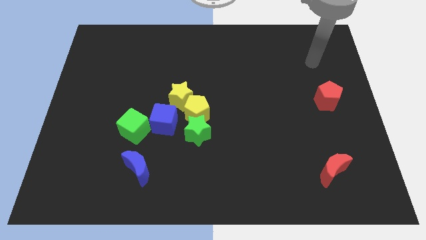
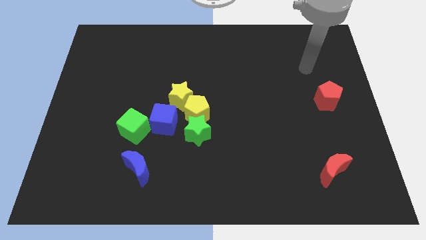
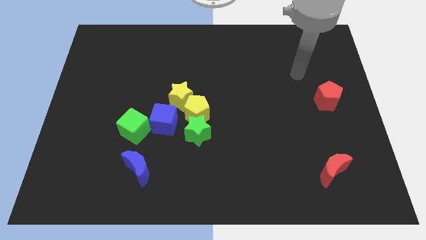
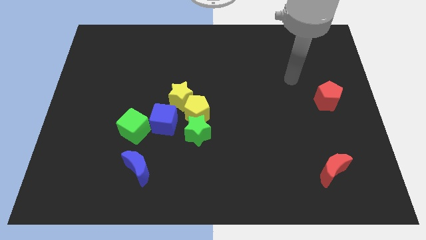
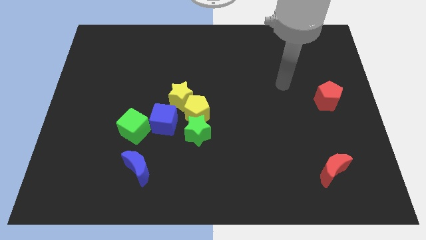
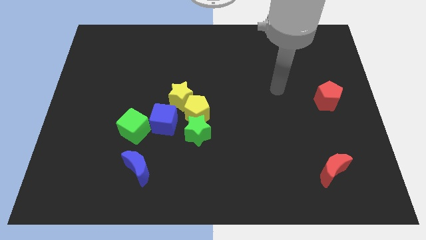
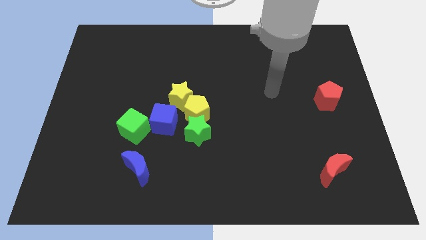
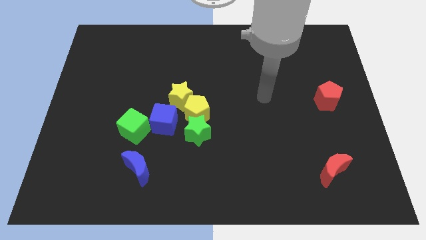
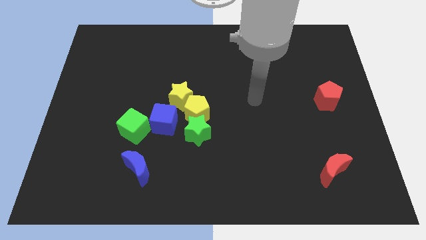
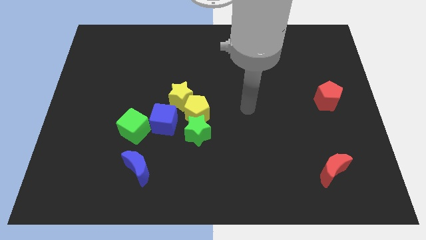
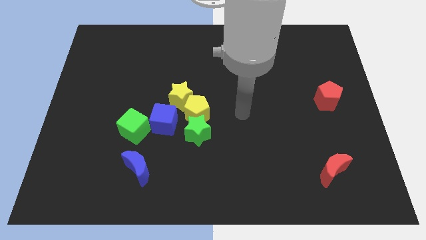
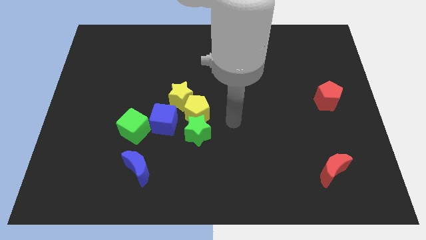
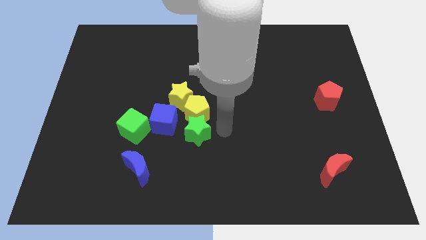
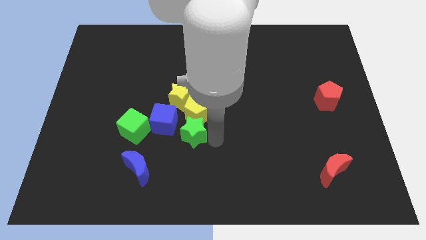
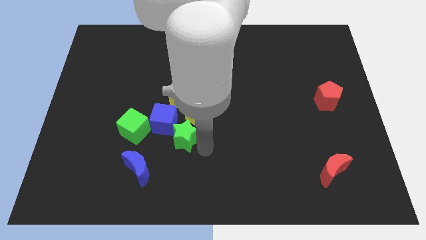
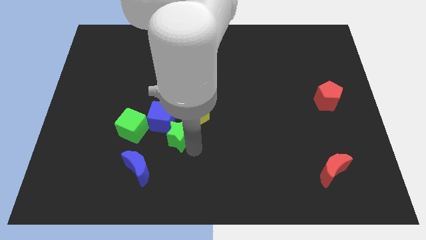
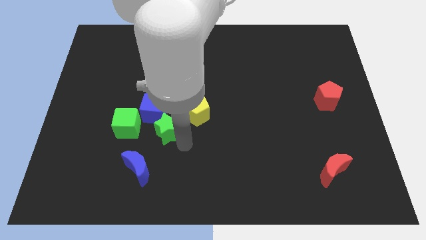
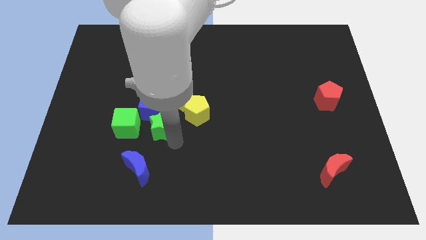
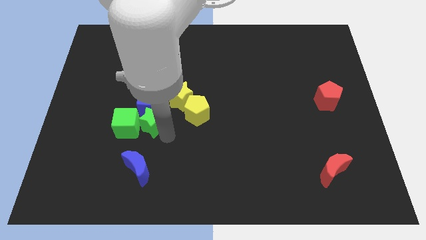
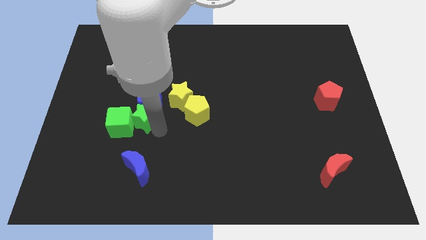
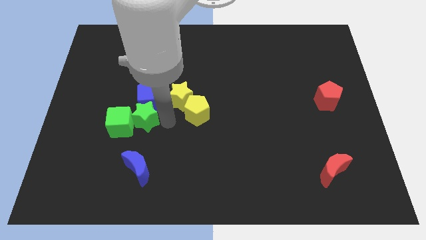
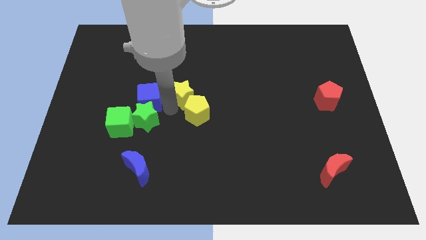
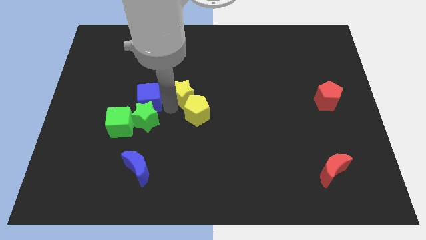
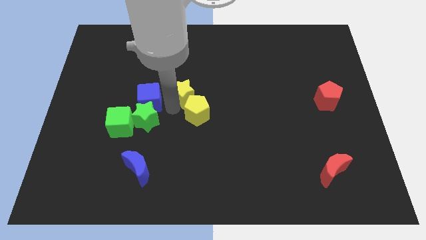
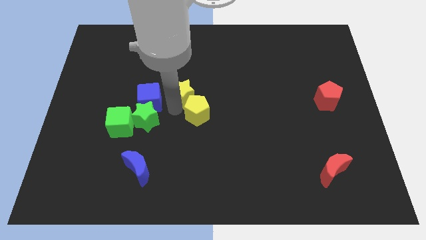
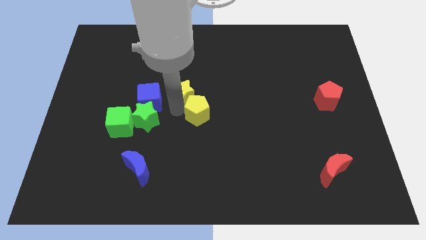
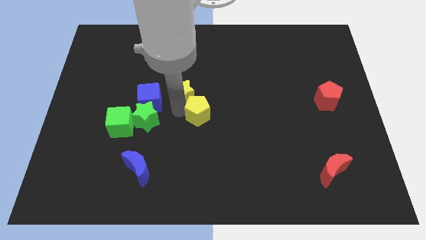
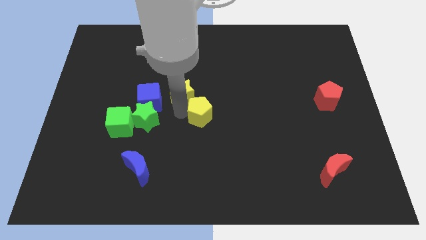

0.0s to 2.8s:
separate the yellow pentagon from the green star, yellow star, and blue cube

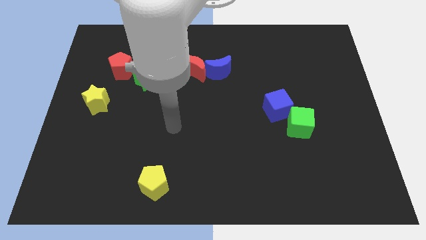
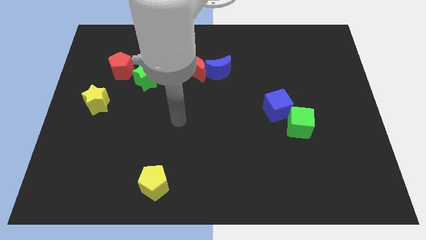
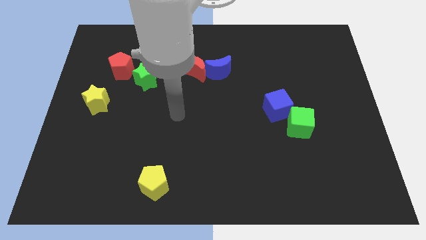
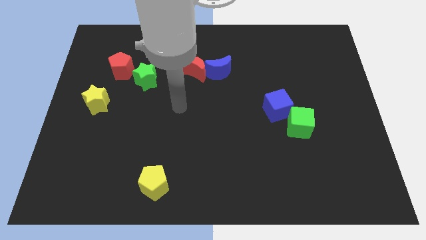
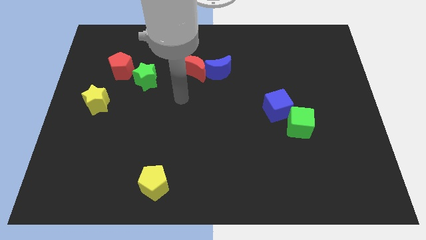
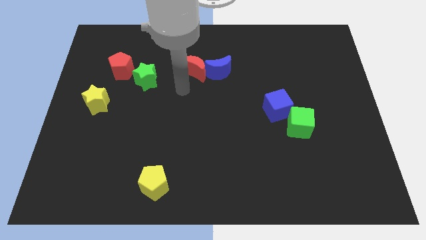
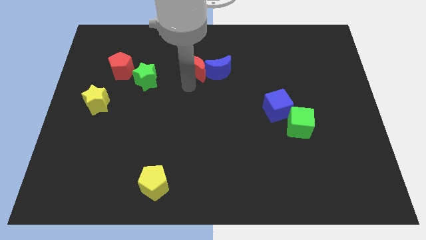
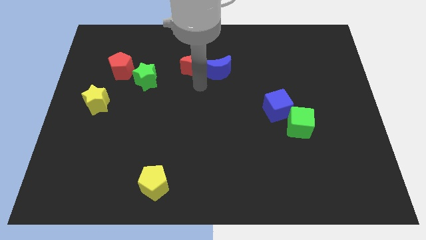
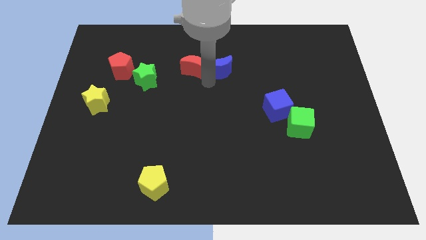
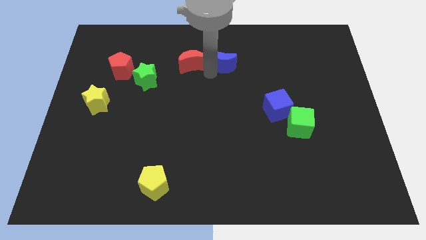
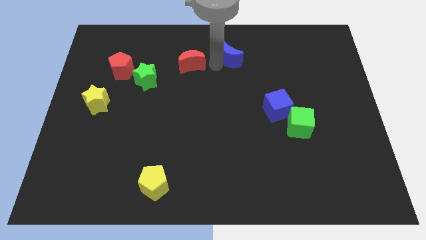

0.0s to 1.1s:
move the red moon away from the blue moon

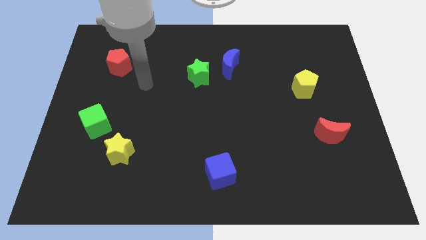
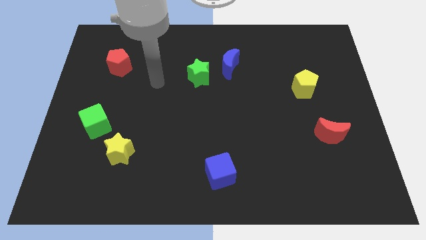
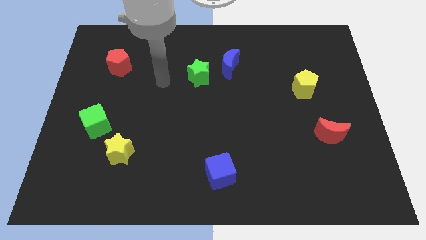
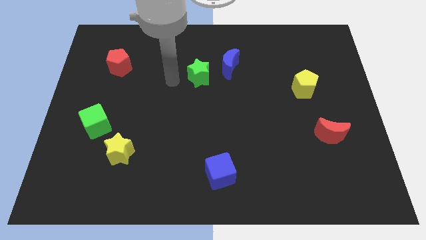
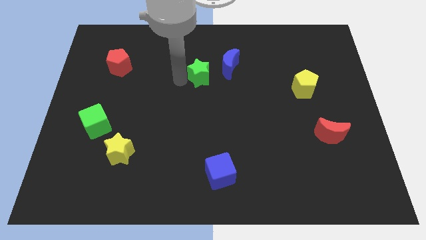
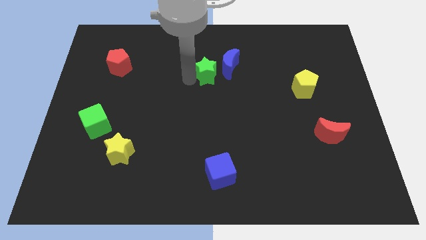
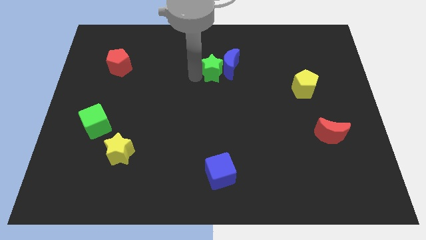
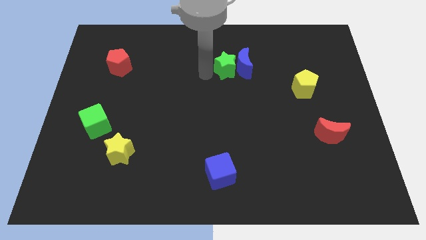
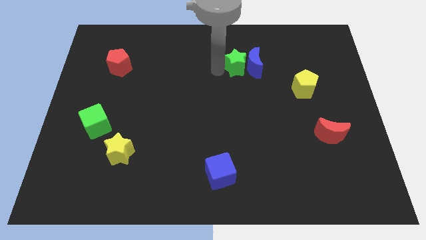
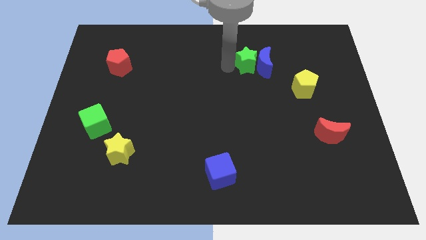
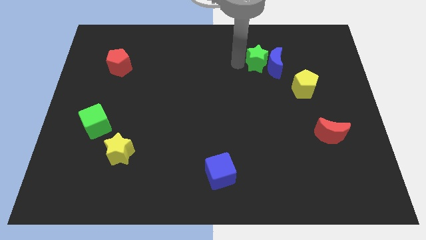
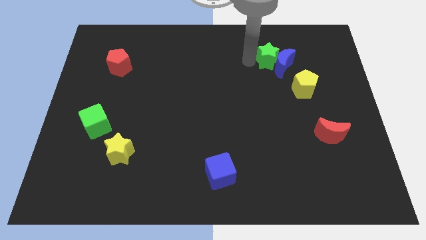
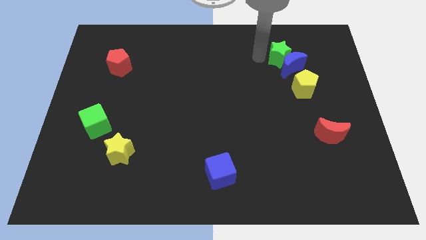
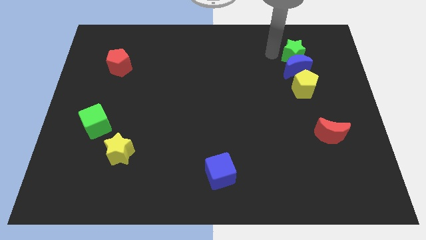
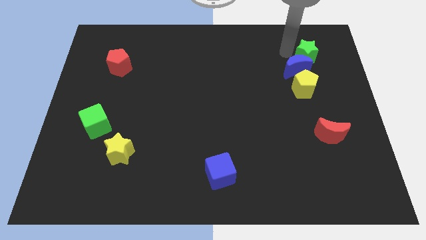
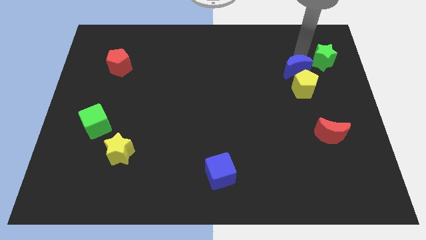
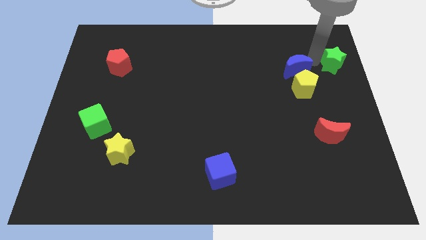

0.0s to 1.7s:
move the blue moon away from the green star

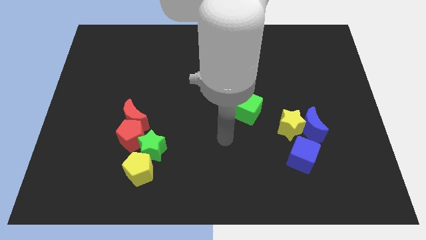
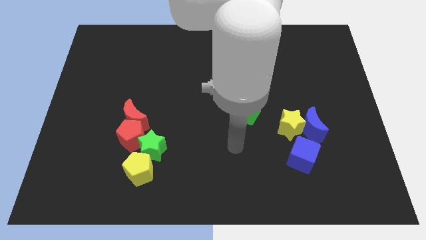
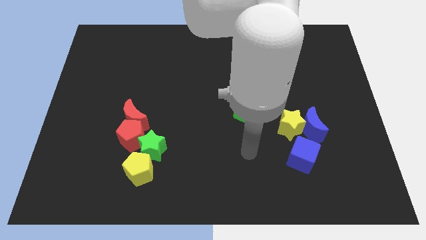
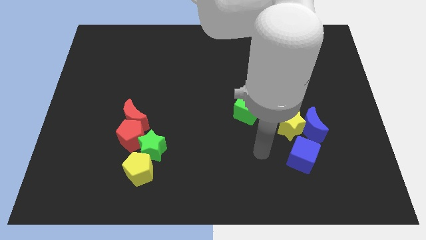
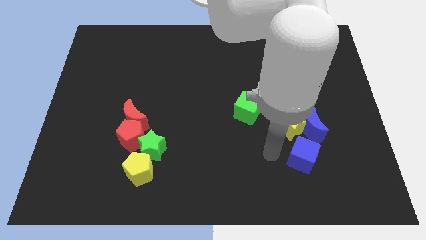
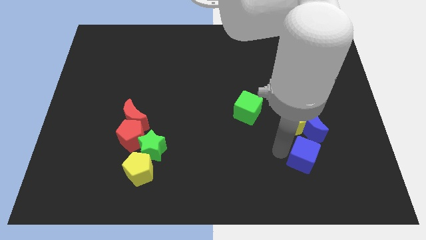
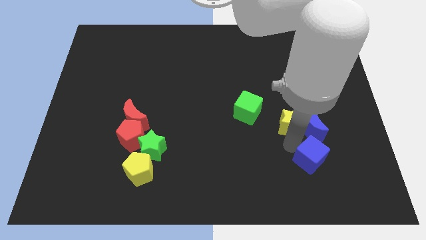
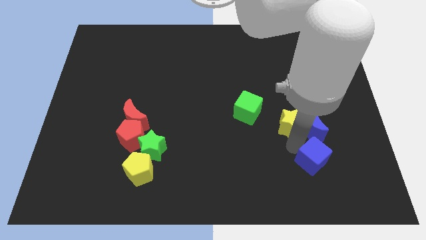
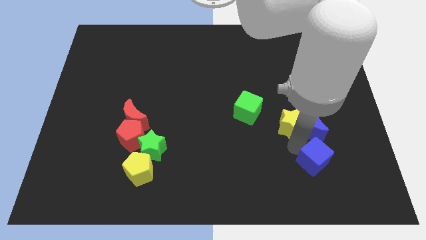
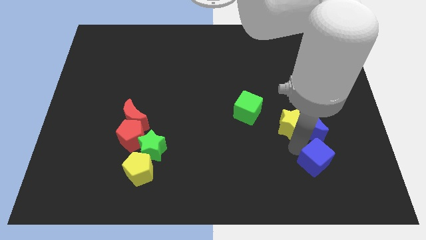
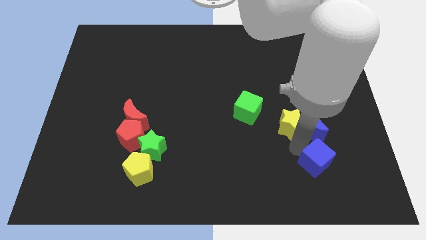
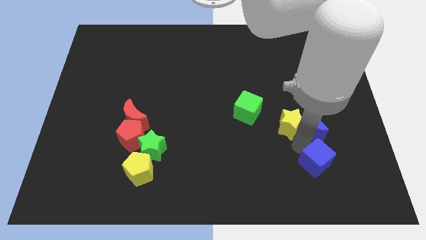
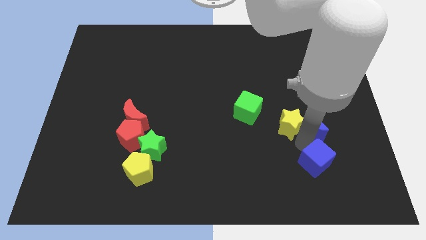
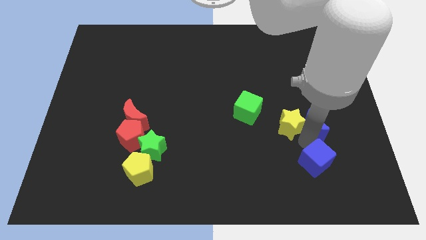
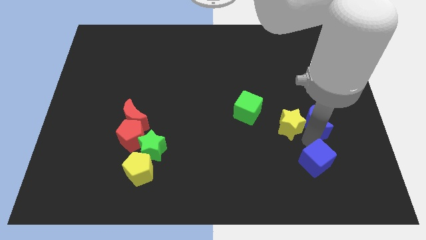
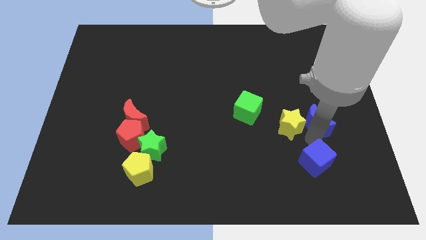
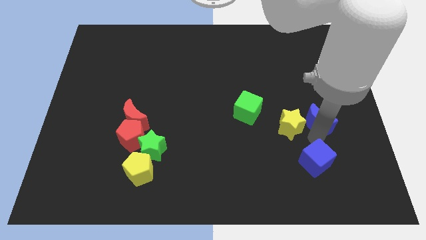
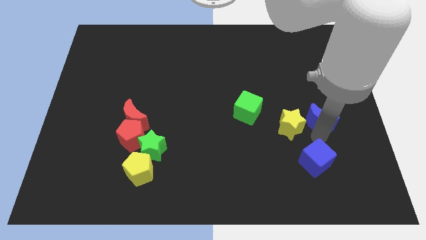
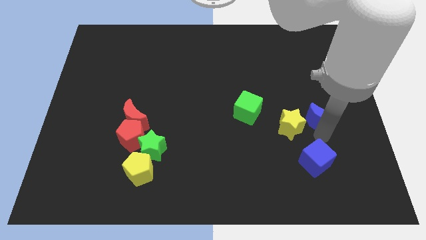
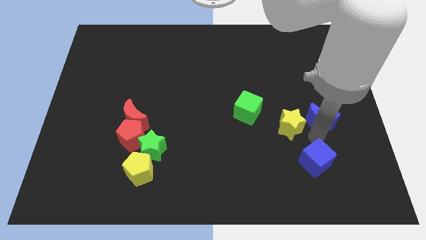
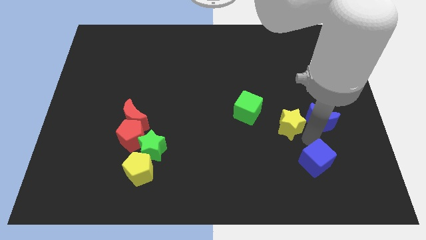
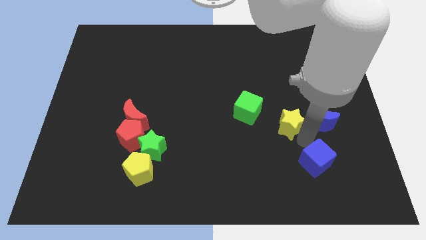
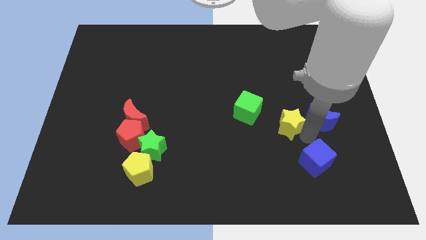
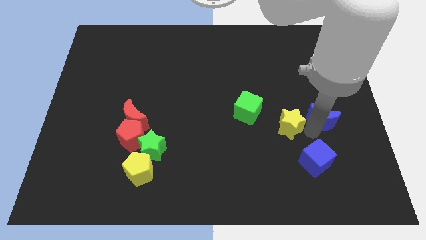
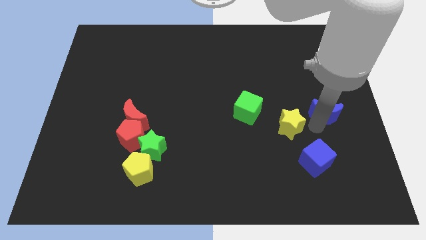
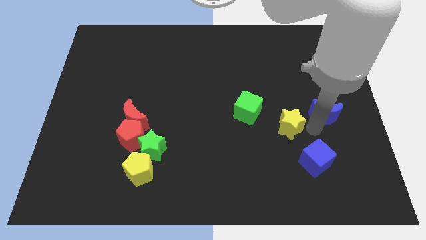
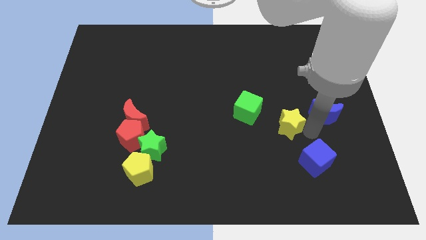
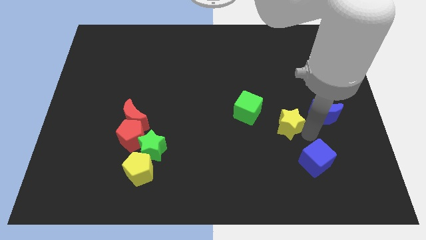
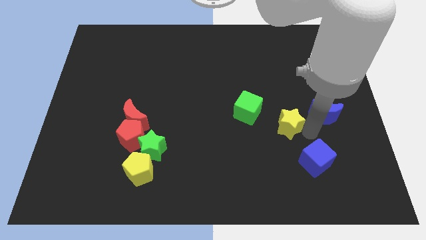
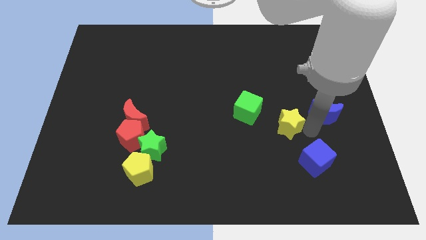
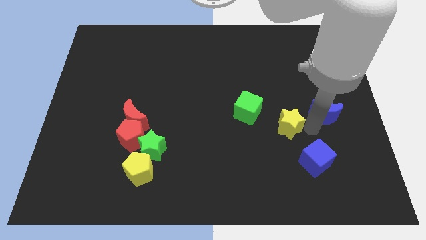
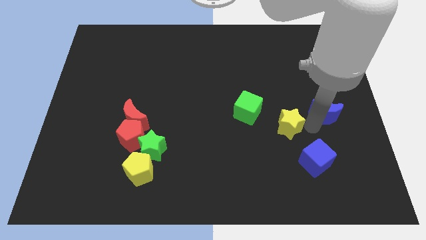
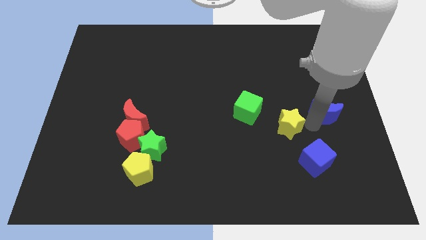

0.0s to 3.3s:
move the blue moon away from the yellow star and blue cube

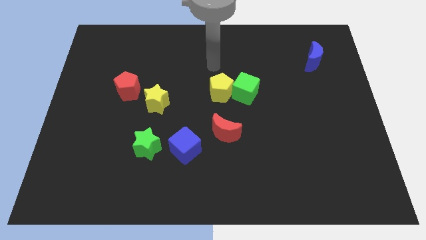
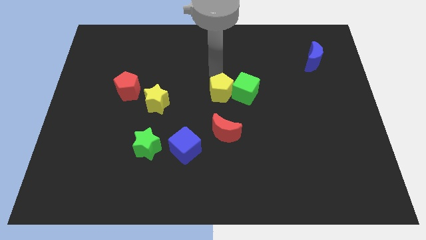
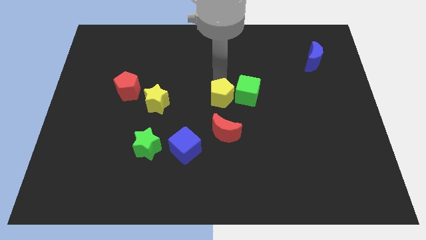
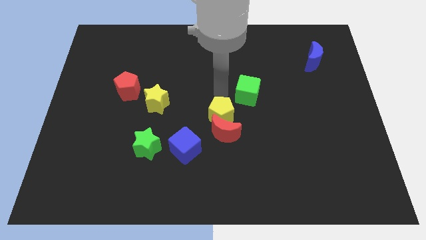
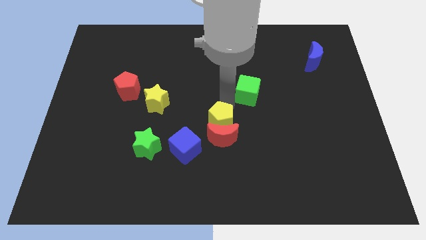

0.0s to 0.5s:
pull the green cube apart from the yellow pentagon
